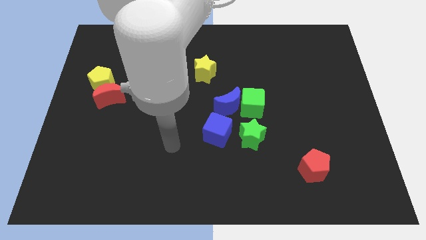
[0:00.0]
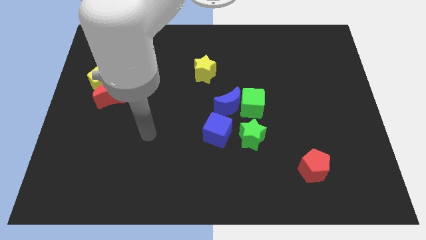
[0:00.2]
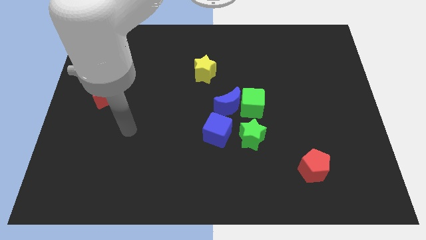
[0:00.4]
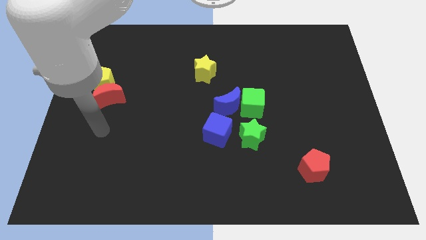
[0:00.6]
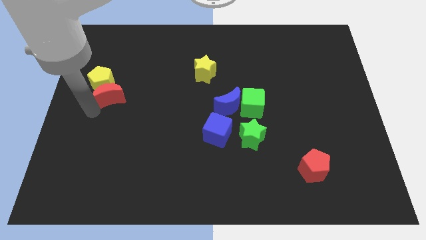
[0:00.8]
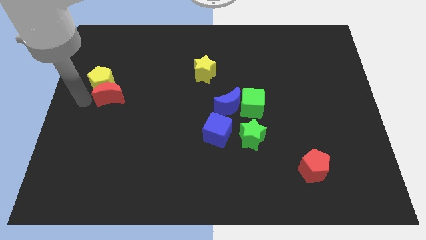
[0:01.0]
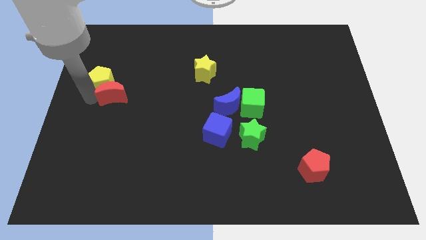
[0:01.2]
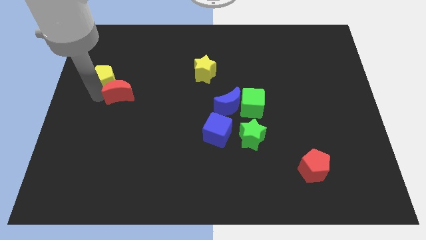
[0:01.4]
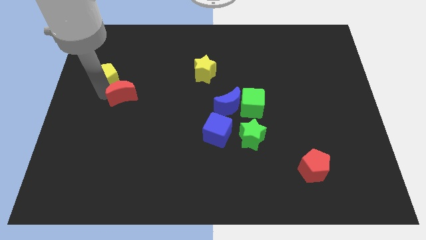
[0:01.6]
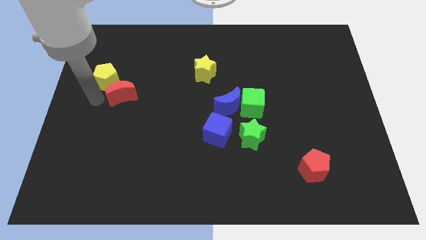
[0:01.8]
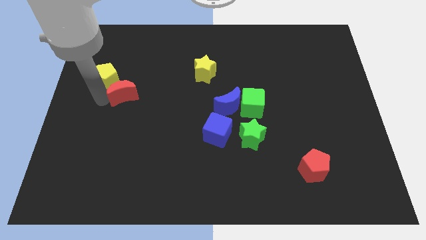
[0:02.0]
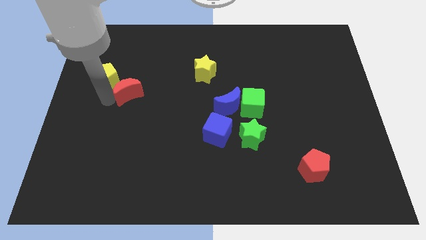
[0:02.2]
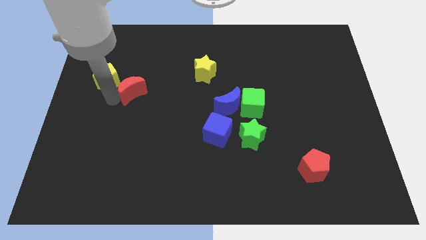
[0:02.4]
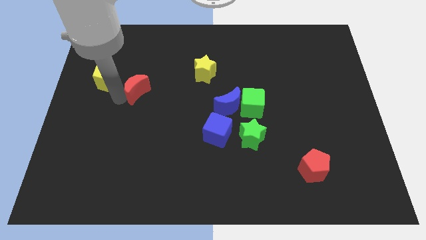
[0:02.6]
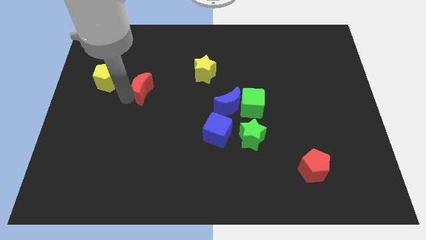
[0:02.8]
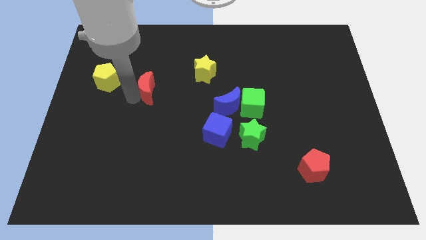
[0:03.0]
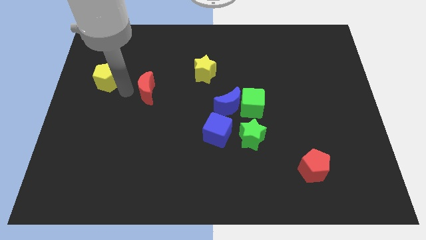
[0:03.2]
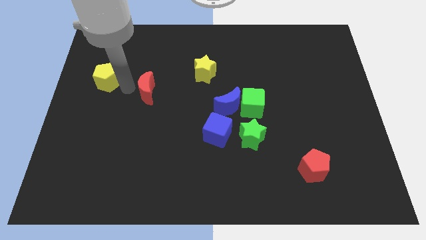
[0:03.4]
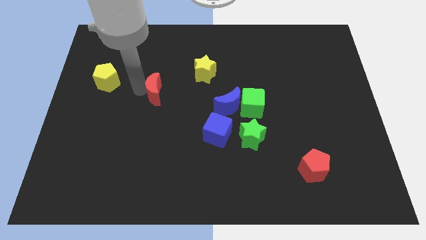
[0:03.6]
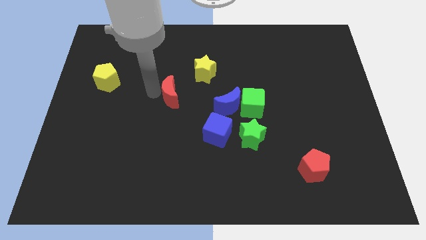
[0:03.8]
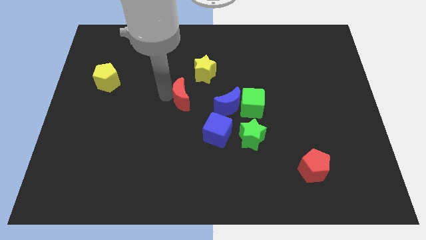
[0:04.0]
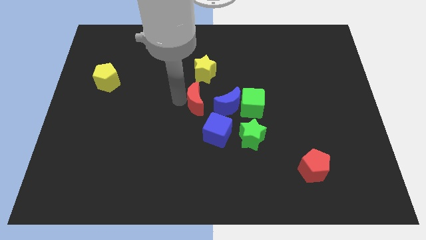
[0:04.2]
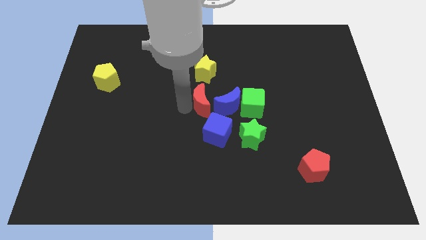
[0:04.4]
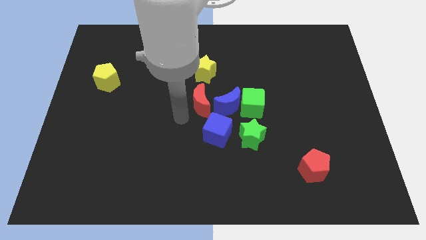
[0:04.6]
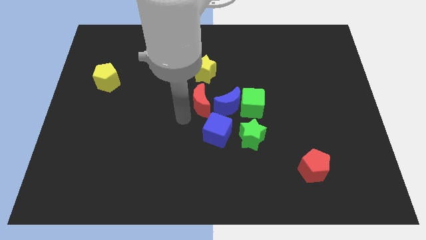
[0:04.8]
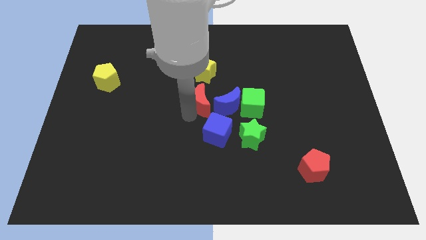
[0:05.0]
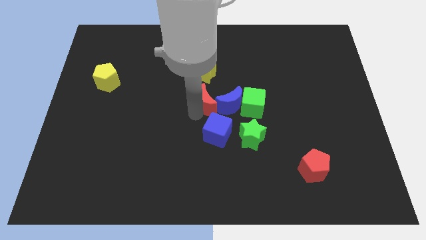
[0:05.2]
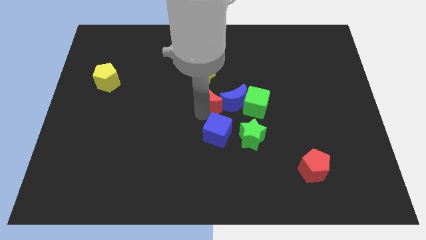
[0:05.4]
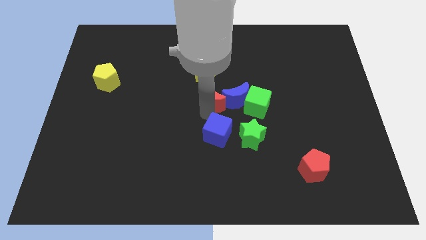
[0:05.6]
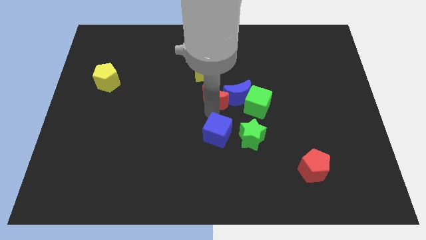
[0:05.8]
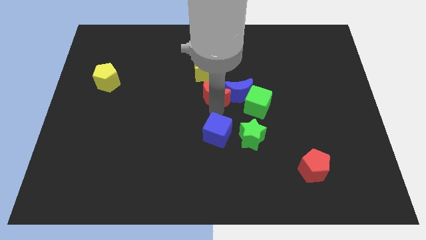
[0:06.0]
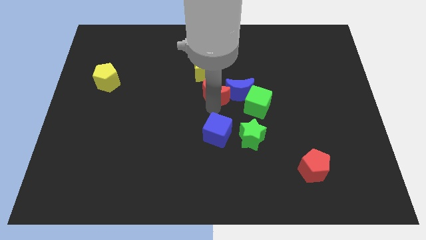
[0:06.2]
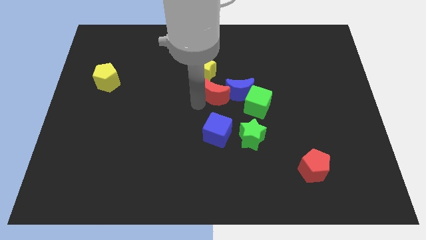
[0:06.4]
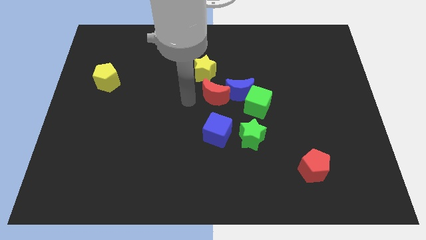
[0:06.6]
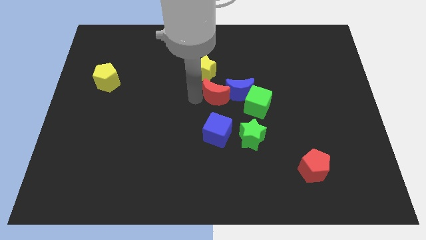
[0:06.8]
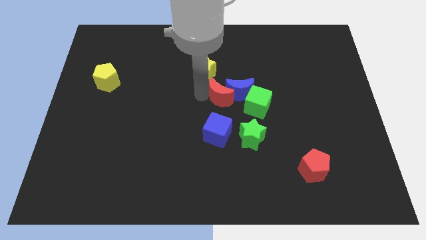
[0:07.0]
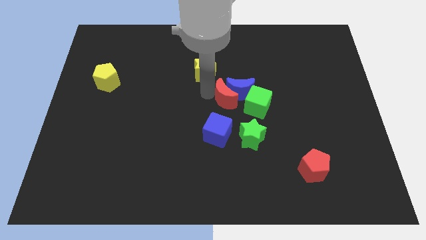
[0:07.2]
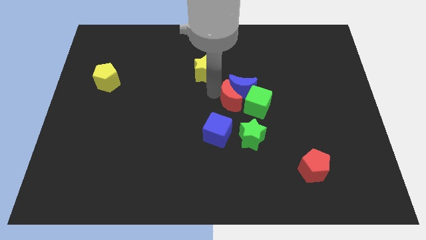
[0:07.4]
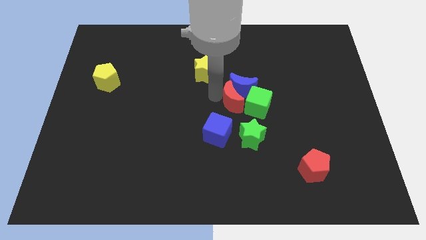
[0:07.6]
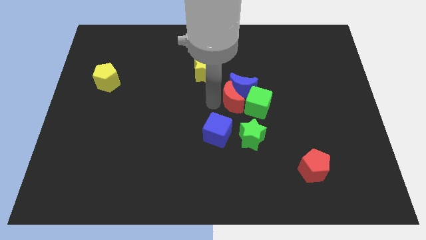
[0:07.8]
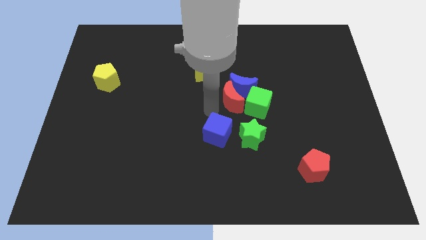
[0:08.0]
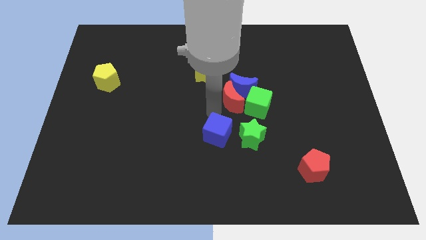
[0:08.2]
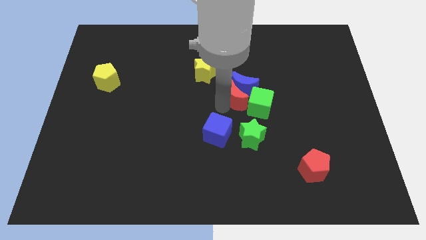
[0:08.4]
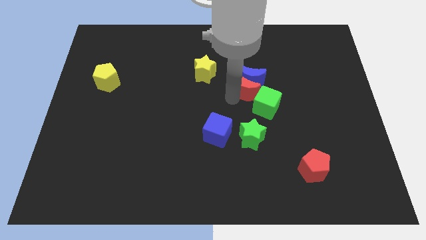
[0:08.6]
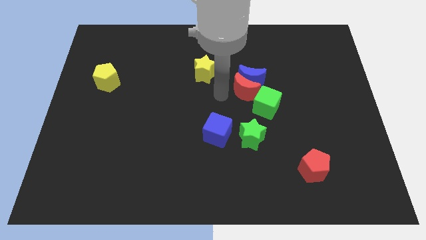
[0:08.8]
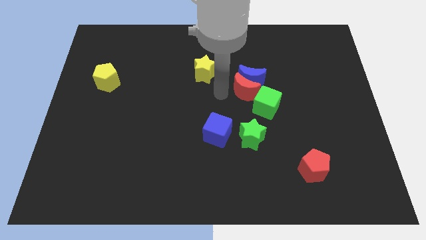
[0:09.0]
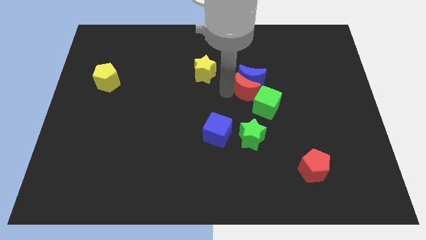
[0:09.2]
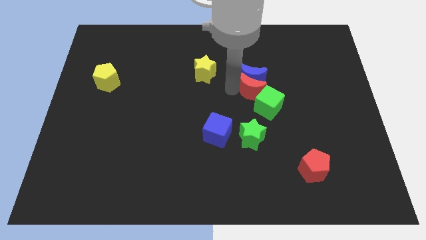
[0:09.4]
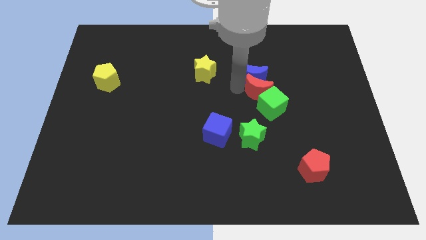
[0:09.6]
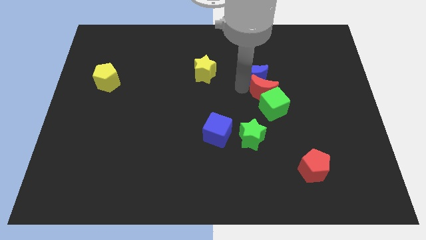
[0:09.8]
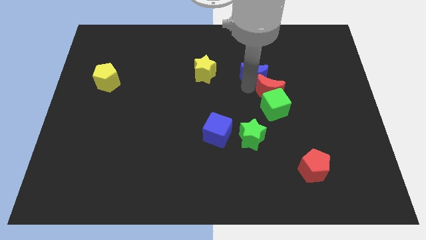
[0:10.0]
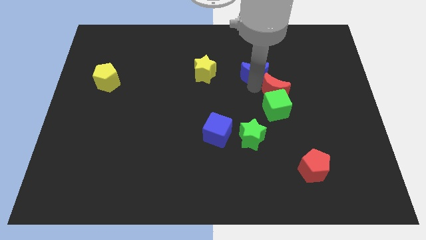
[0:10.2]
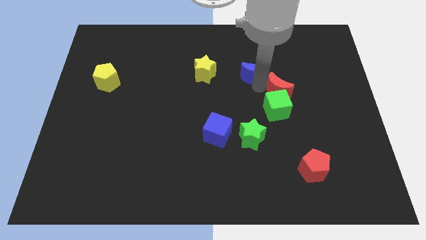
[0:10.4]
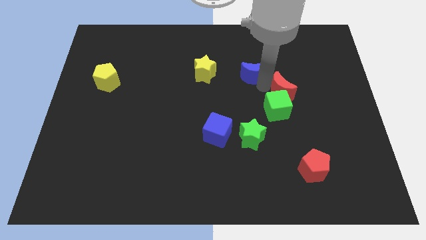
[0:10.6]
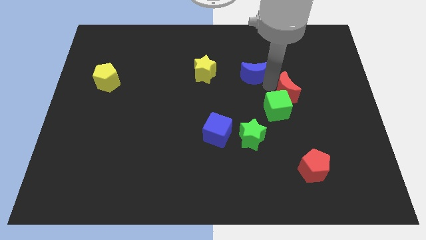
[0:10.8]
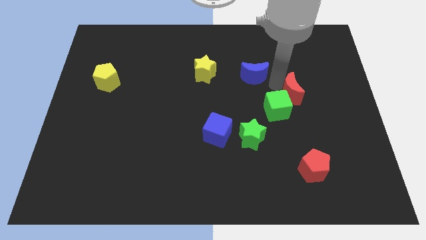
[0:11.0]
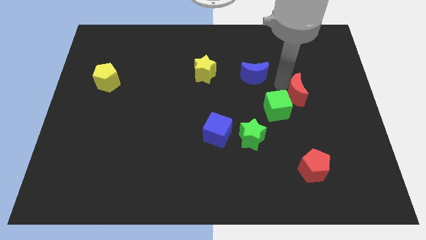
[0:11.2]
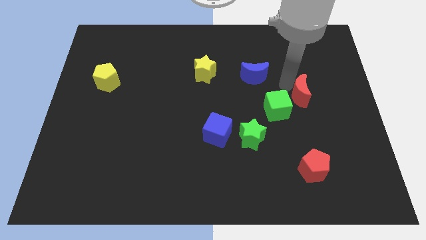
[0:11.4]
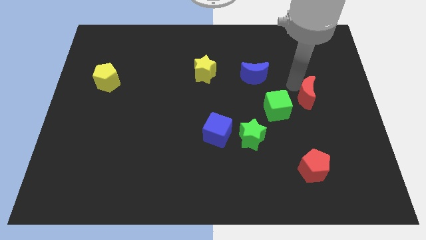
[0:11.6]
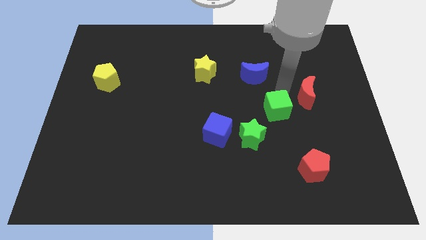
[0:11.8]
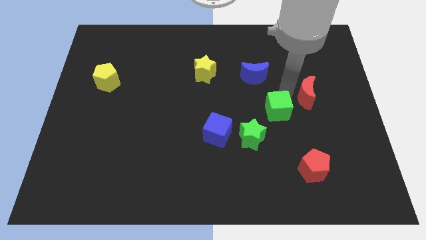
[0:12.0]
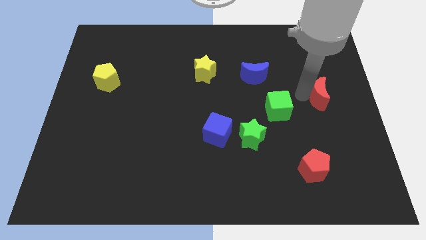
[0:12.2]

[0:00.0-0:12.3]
move the red moon to the center right

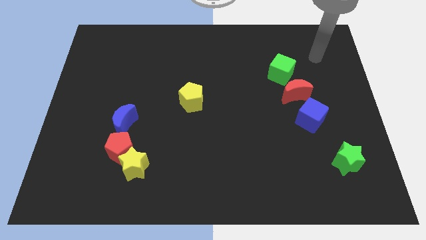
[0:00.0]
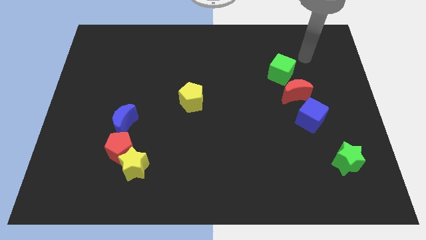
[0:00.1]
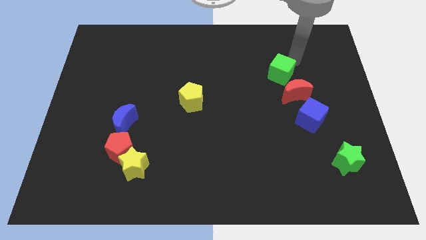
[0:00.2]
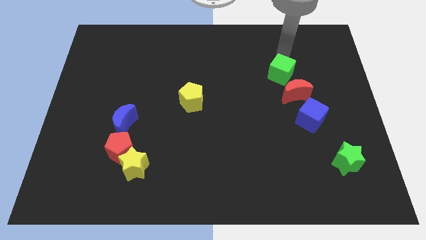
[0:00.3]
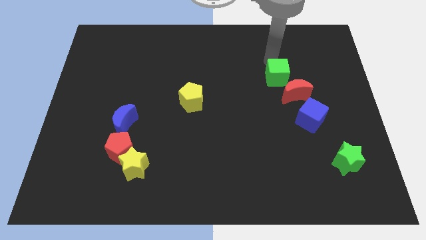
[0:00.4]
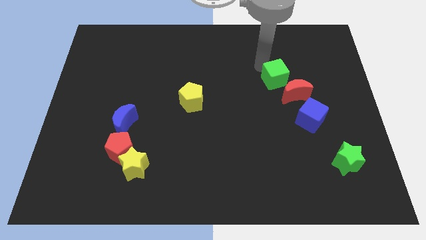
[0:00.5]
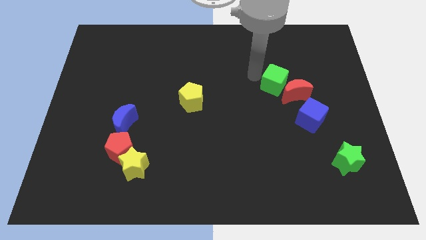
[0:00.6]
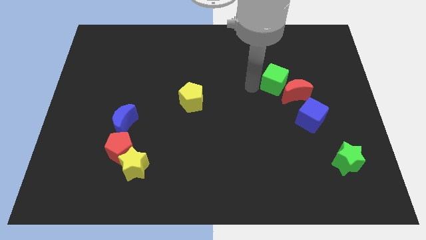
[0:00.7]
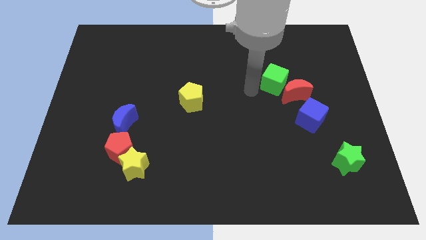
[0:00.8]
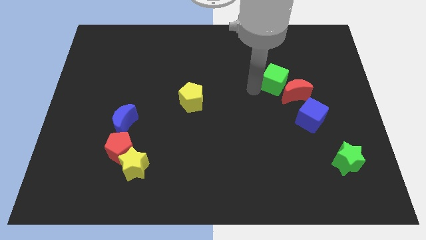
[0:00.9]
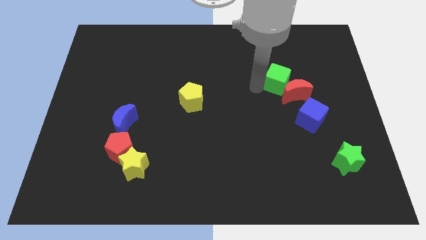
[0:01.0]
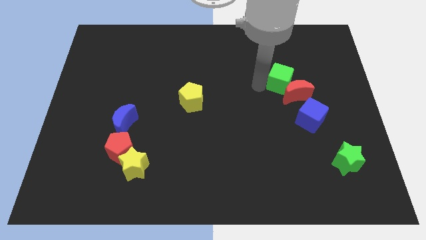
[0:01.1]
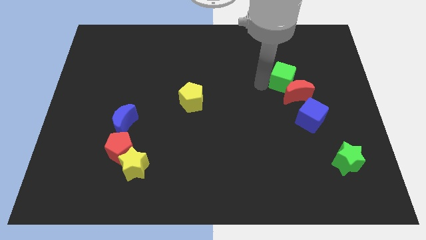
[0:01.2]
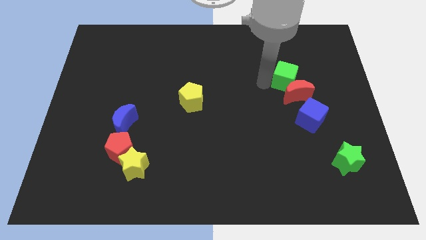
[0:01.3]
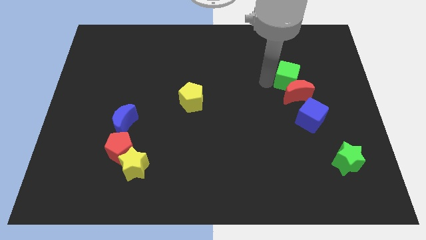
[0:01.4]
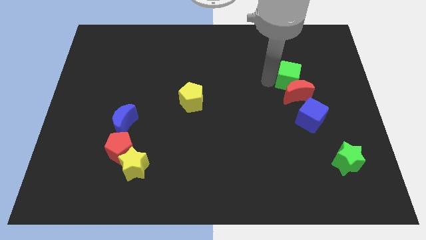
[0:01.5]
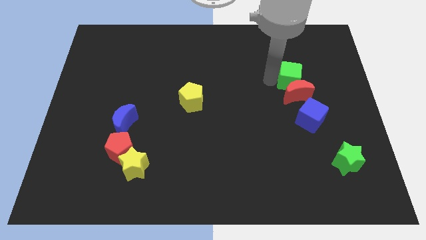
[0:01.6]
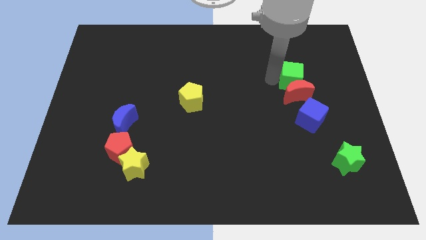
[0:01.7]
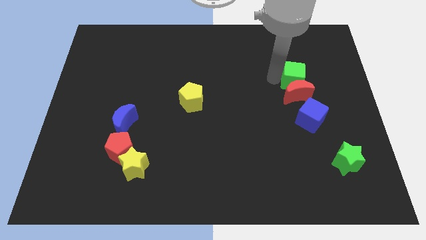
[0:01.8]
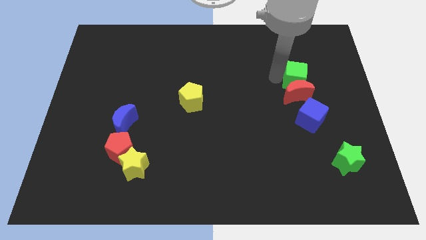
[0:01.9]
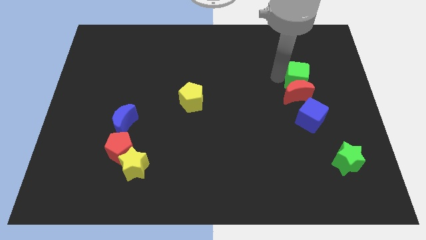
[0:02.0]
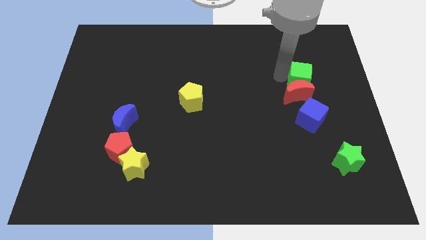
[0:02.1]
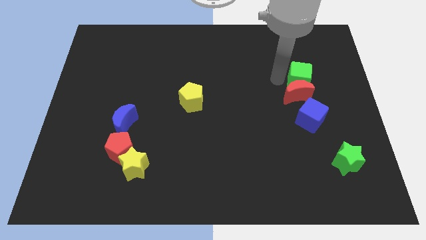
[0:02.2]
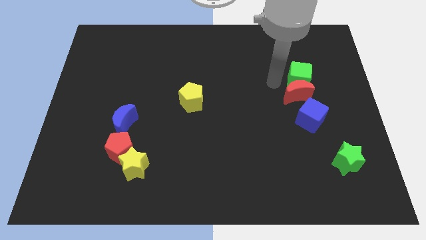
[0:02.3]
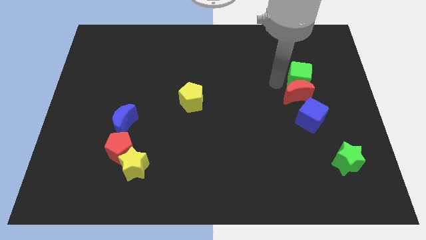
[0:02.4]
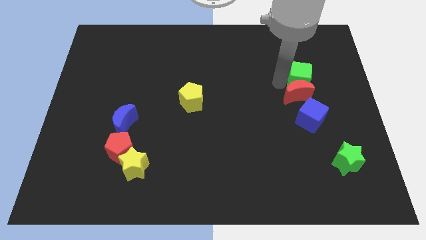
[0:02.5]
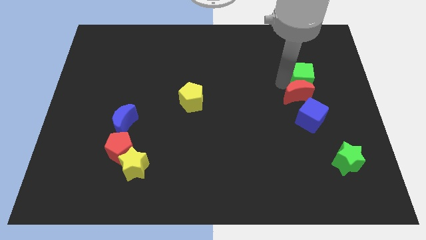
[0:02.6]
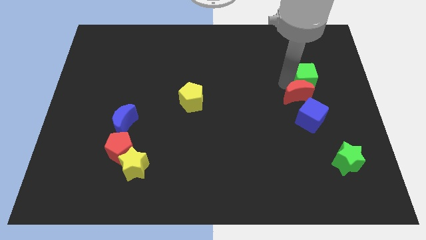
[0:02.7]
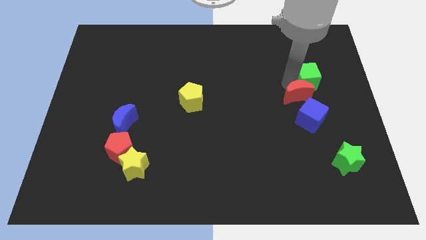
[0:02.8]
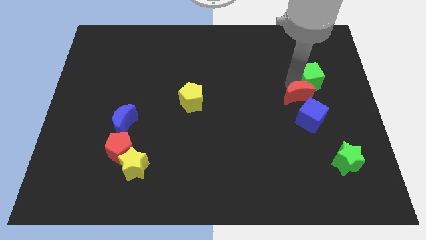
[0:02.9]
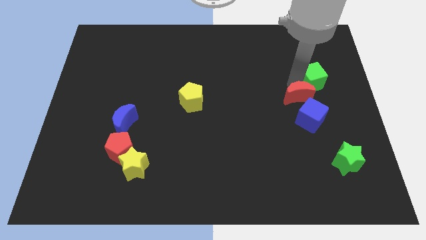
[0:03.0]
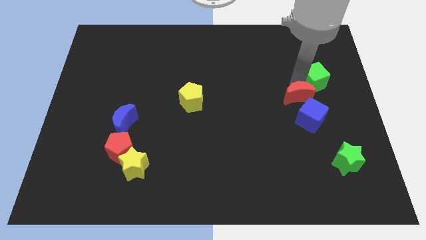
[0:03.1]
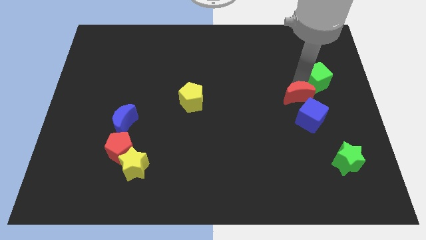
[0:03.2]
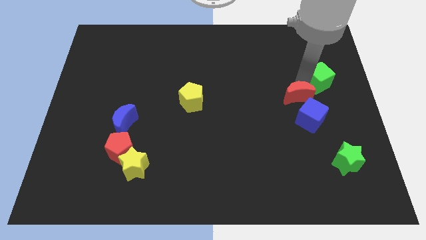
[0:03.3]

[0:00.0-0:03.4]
put the green cube to the center right
